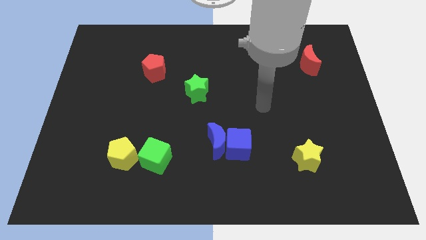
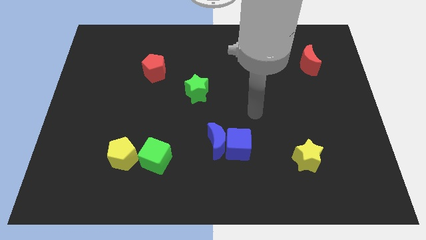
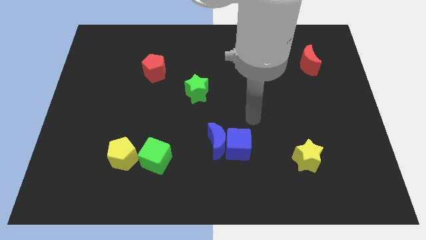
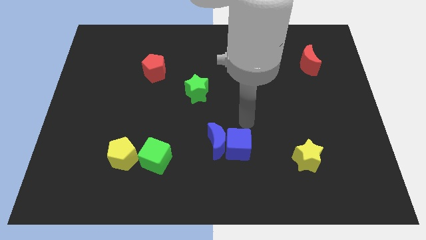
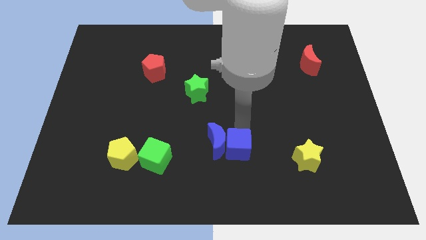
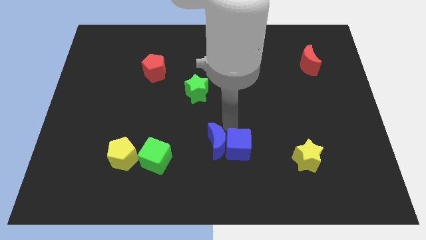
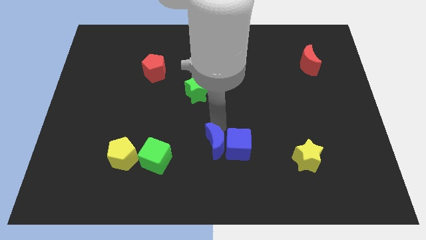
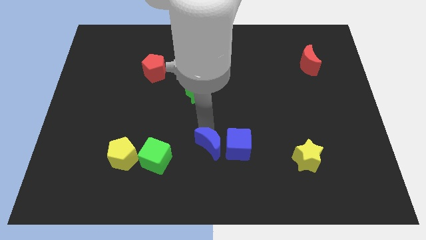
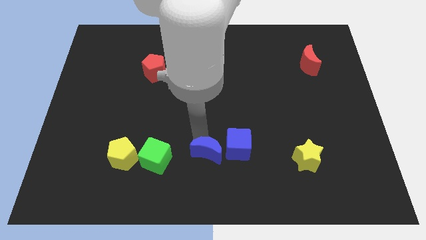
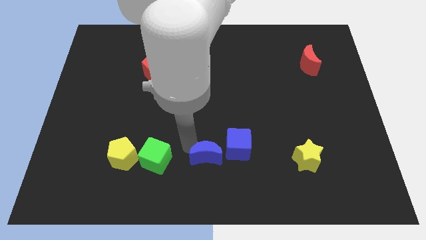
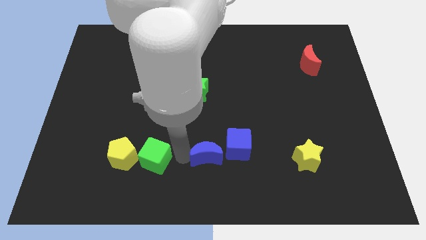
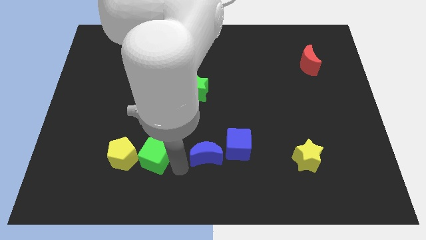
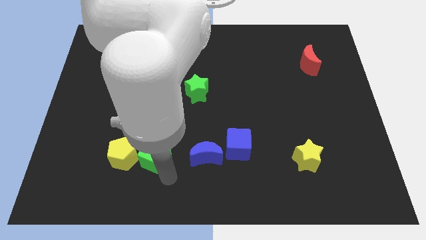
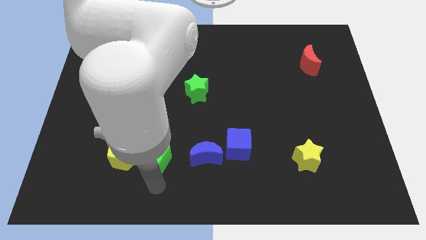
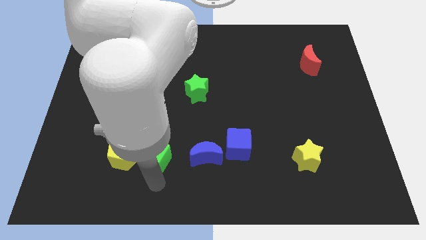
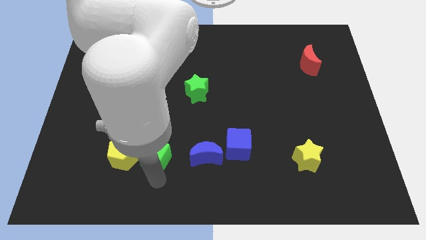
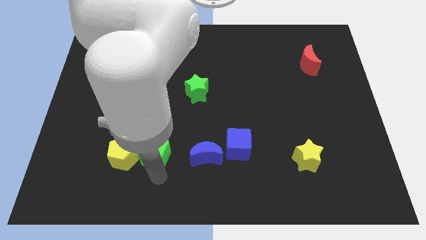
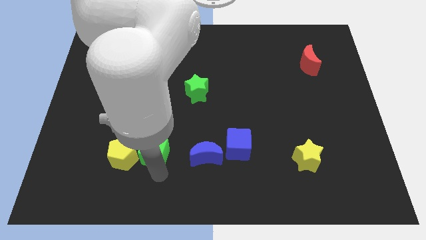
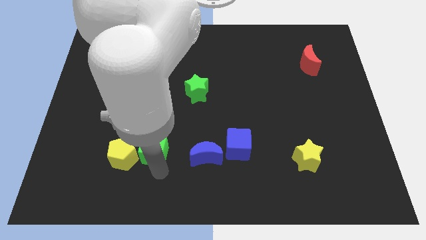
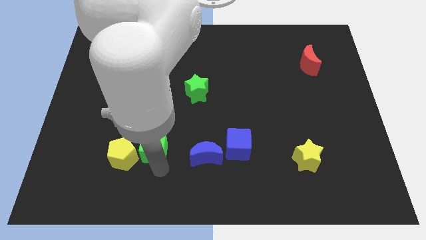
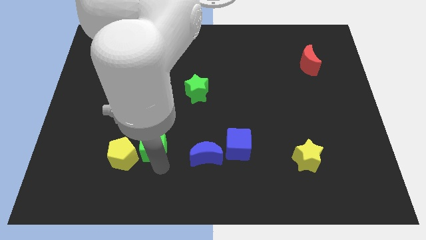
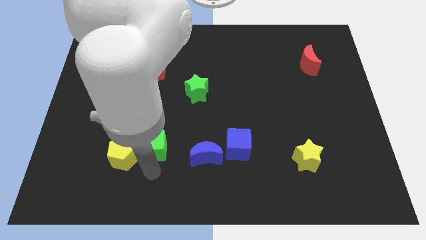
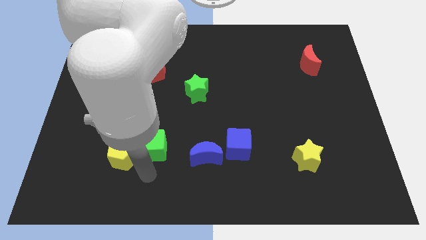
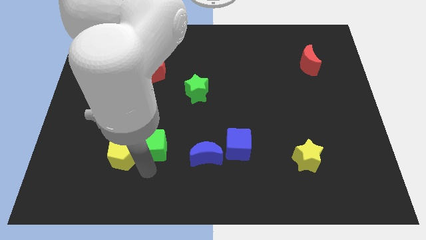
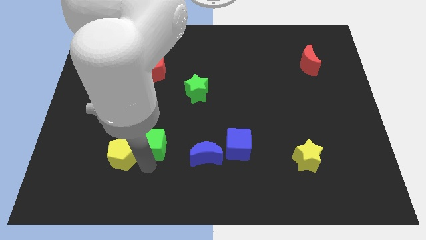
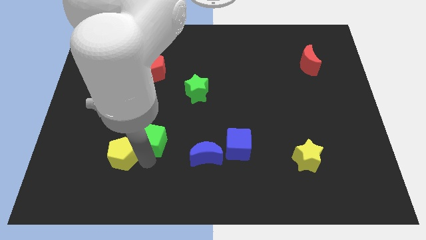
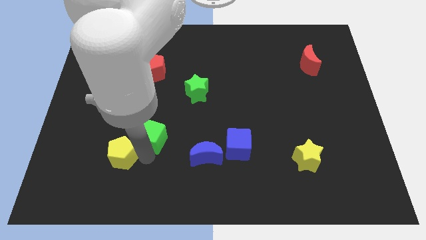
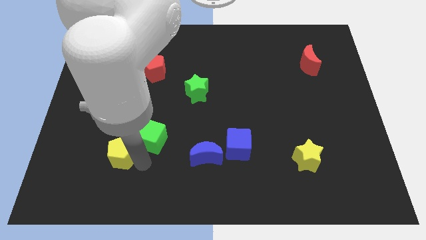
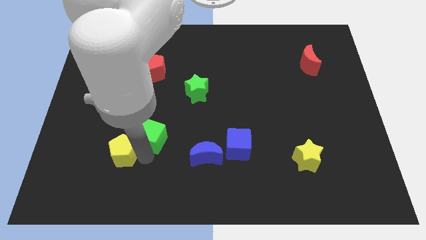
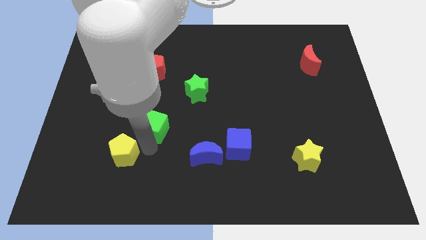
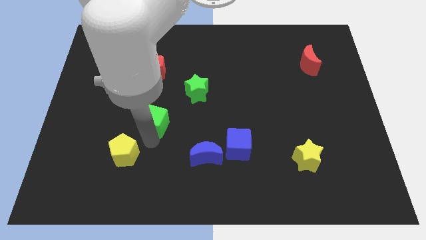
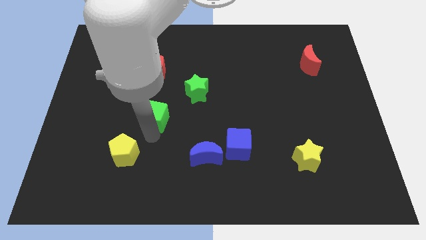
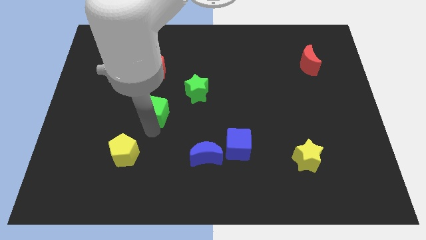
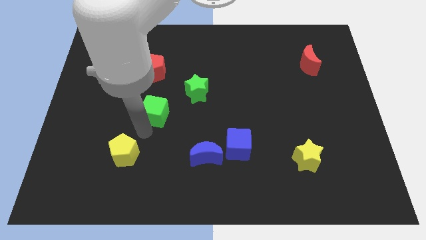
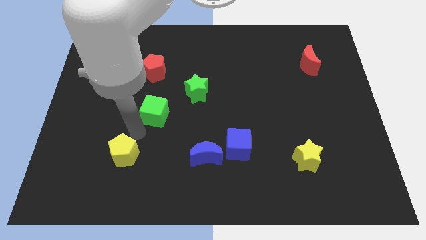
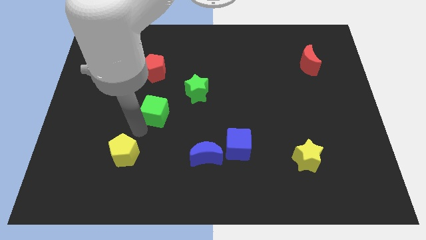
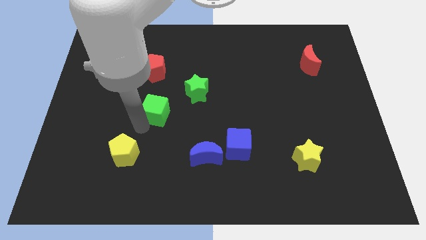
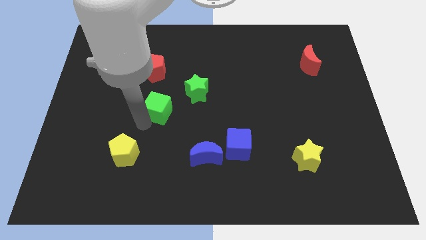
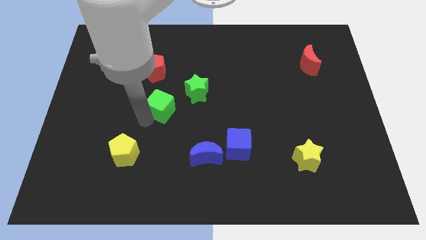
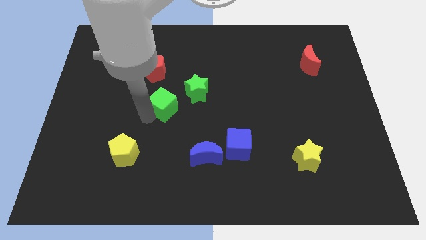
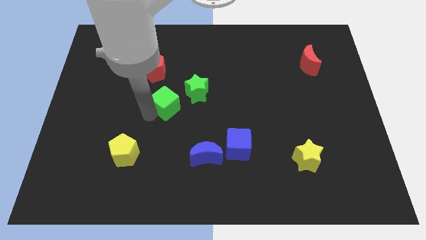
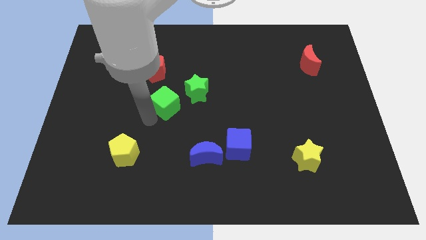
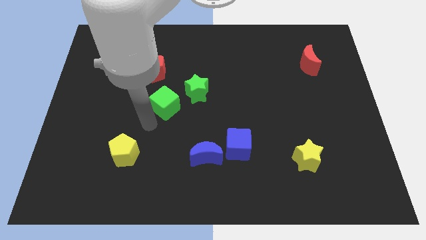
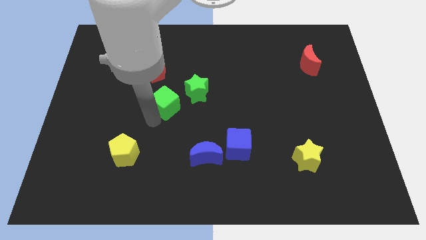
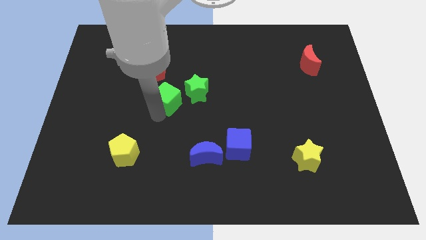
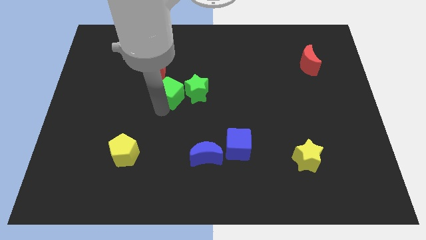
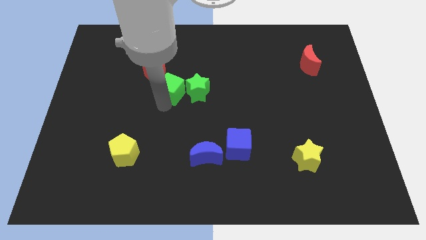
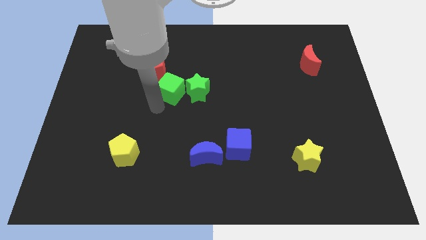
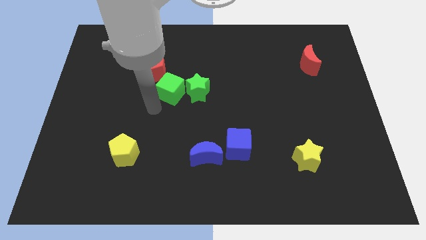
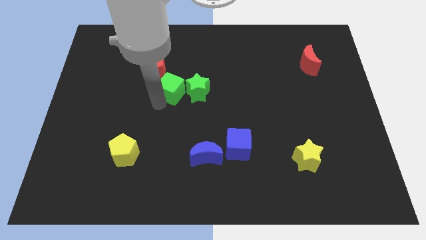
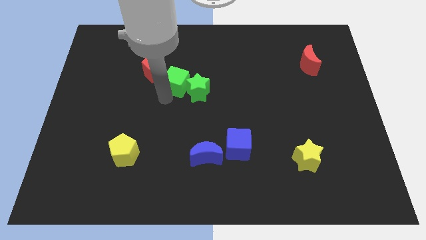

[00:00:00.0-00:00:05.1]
slide the green cube to the right of the red pentagon

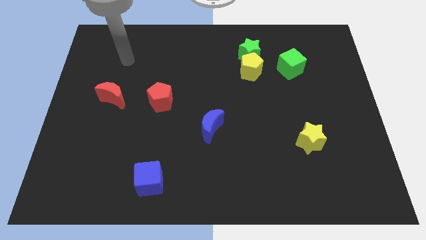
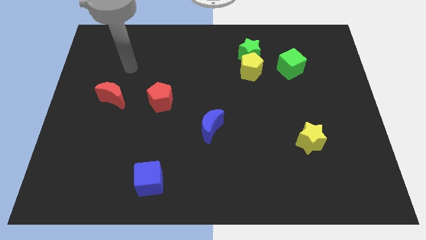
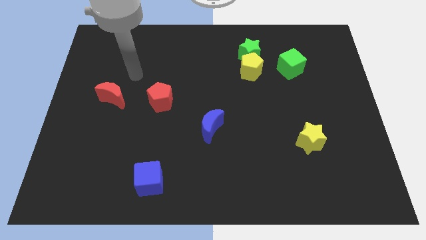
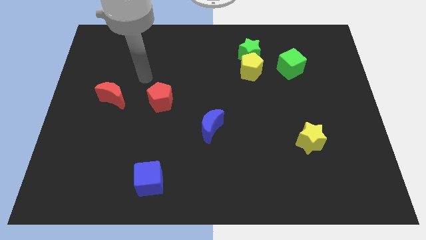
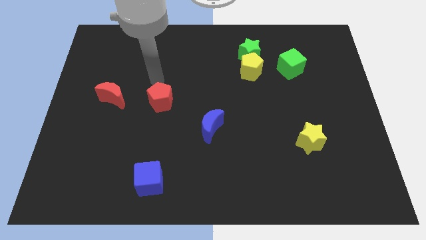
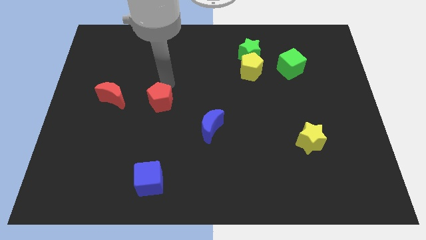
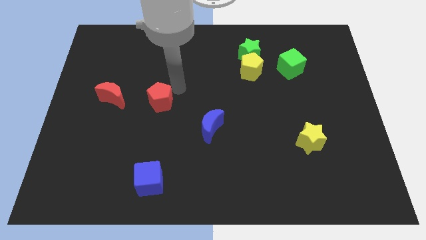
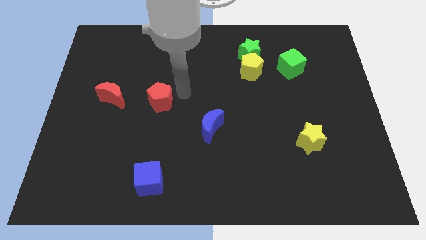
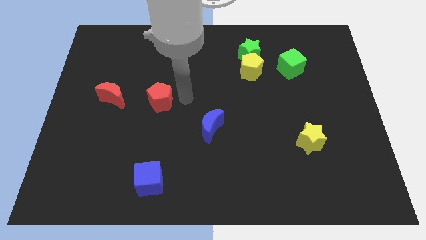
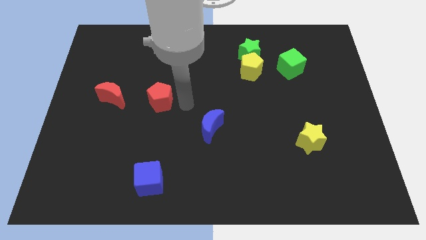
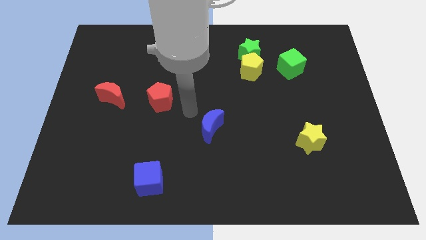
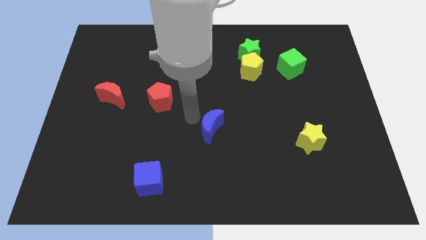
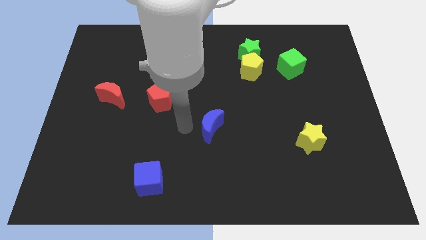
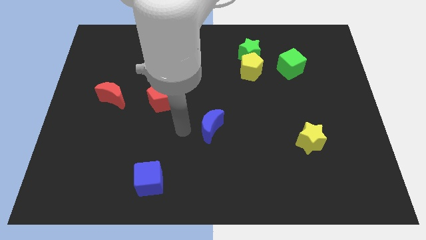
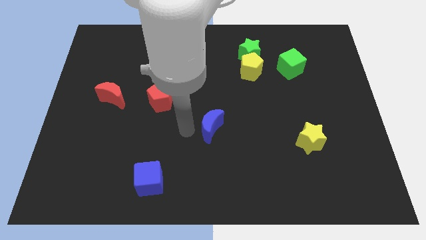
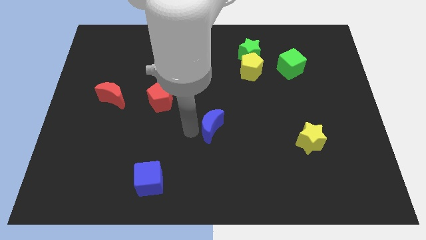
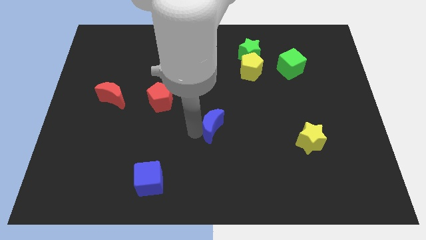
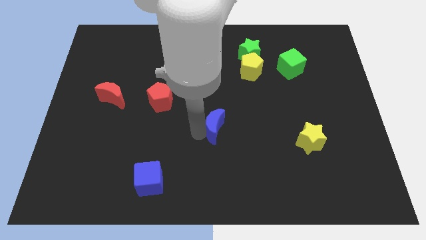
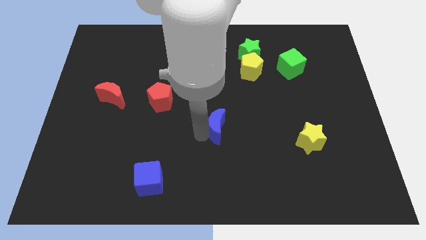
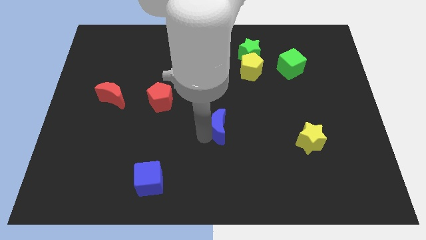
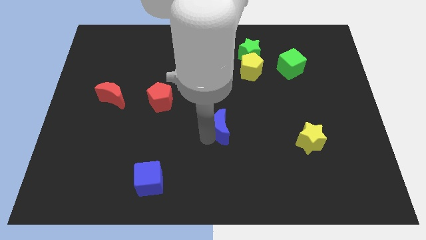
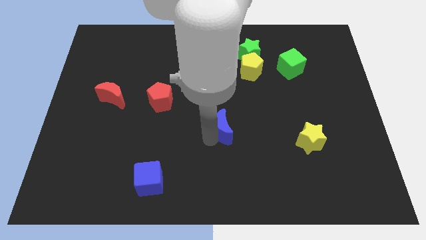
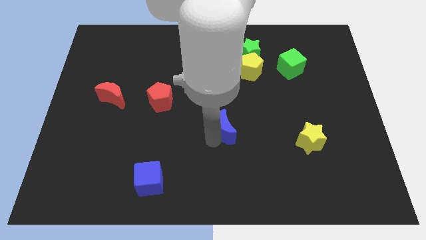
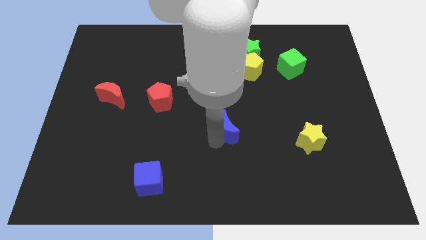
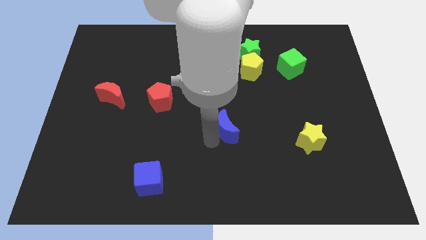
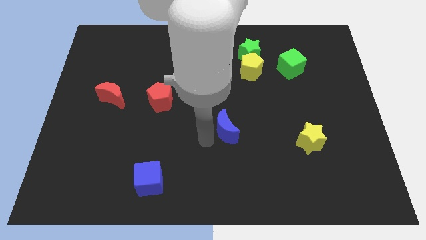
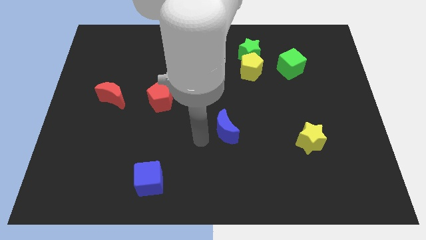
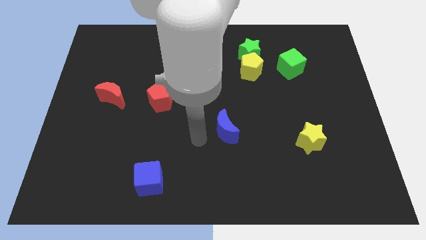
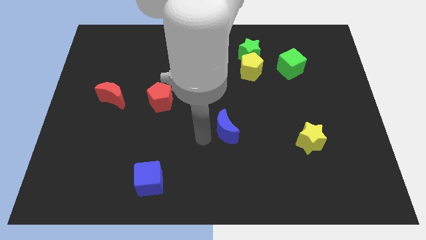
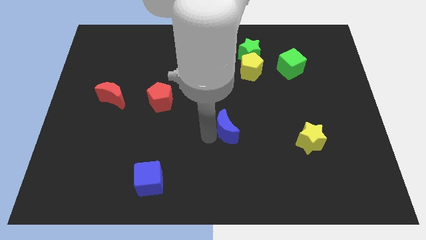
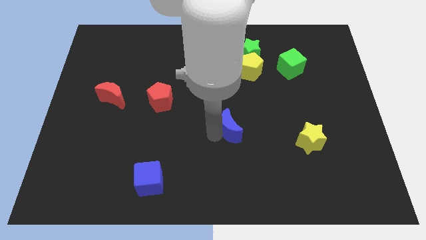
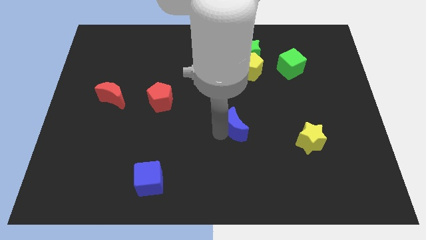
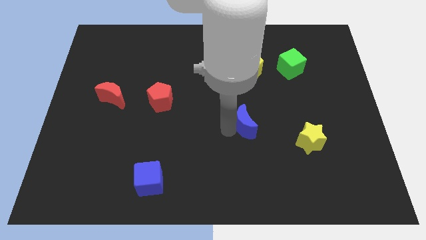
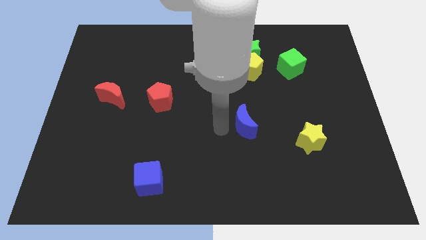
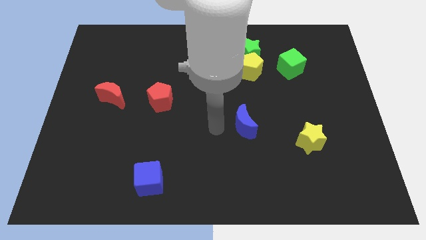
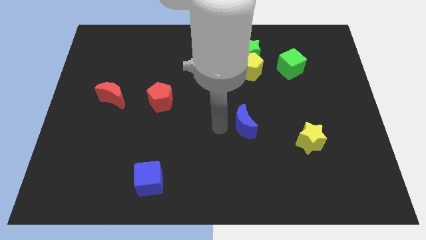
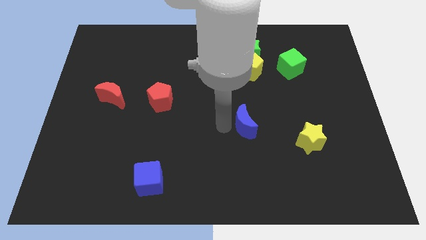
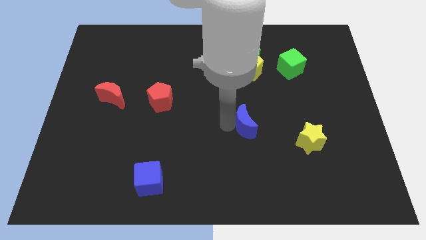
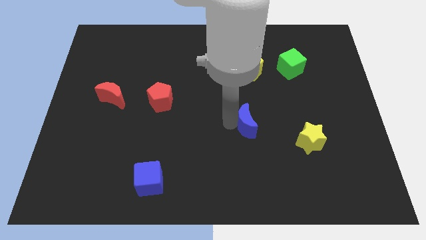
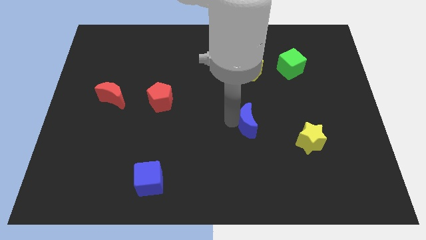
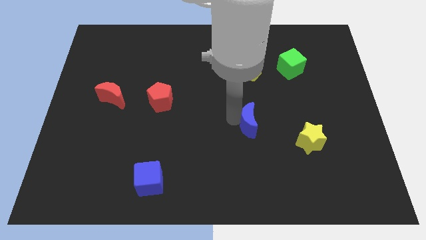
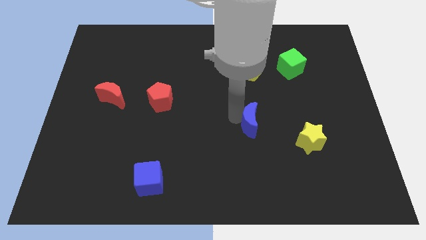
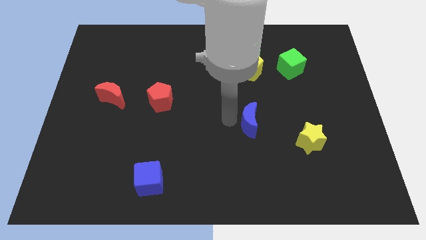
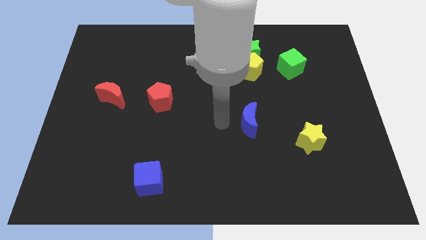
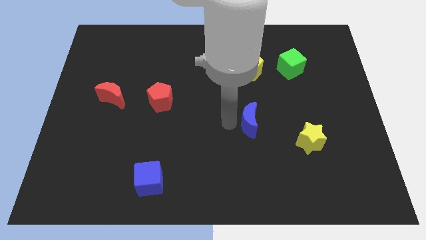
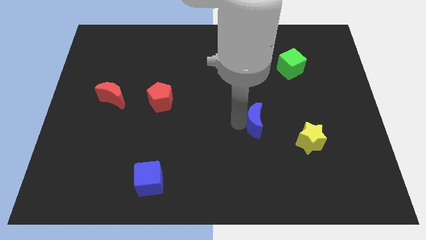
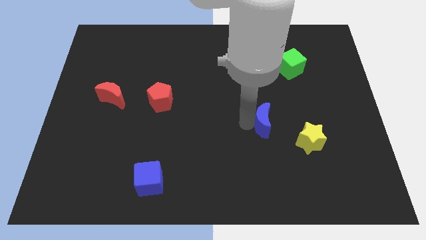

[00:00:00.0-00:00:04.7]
move the blue moon to the top left side of the yellow star
